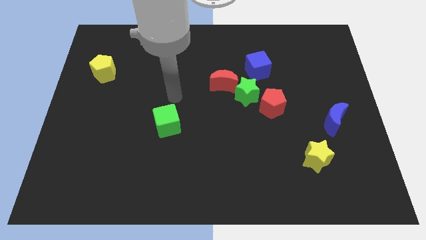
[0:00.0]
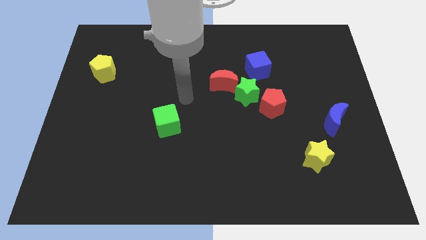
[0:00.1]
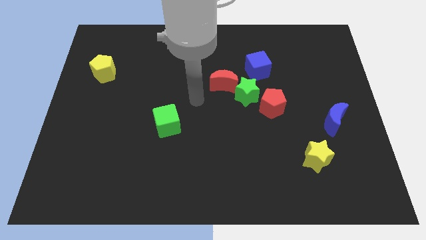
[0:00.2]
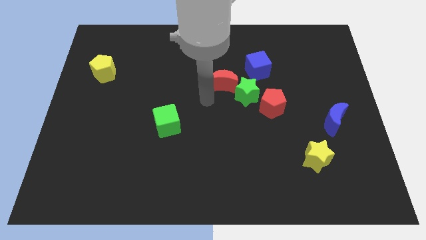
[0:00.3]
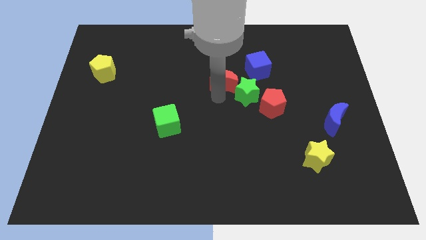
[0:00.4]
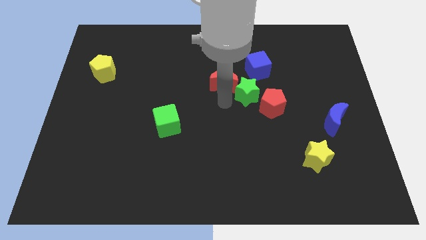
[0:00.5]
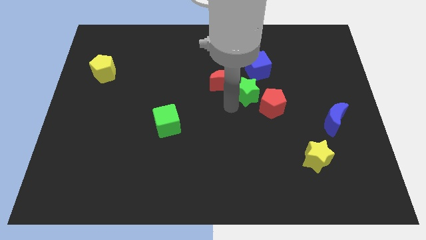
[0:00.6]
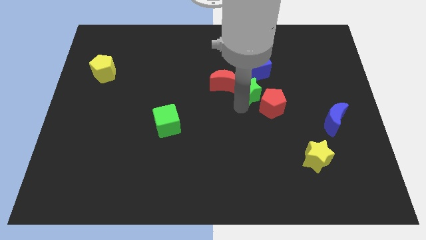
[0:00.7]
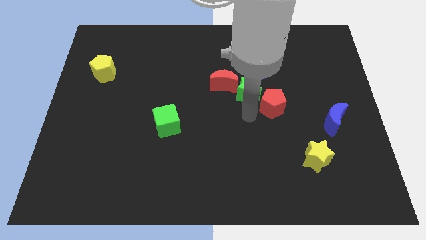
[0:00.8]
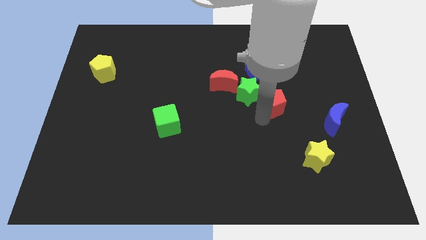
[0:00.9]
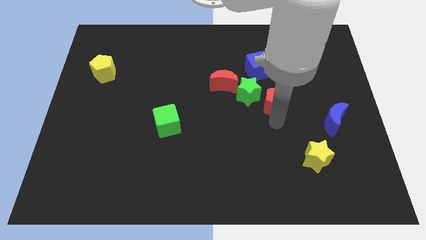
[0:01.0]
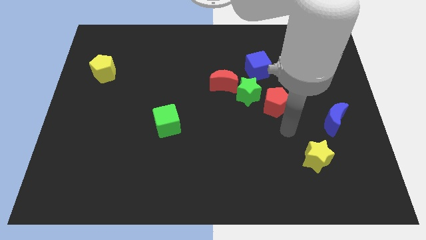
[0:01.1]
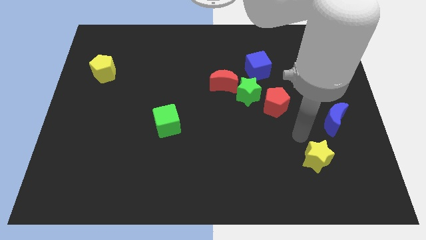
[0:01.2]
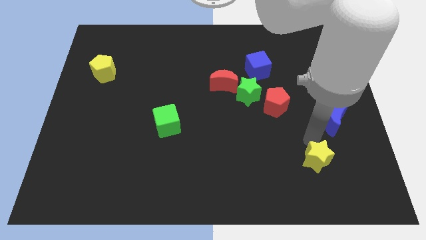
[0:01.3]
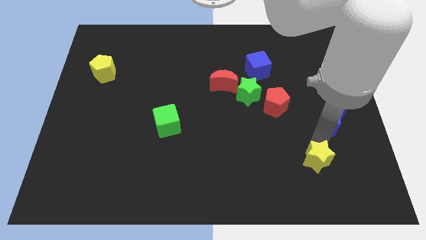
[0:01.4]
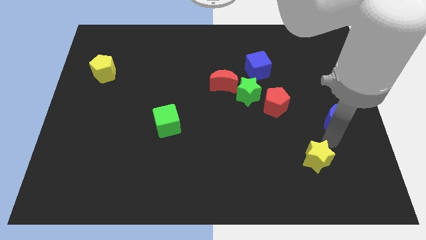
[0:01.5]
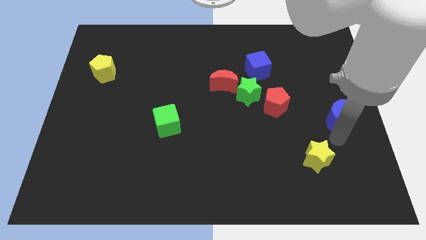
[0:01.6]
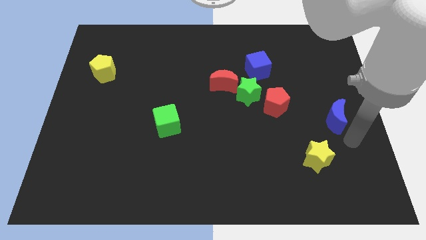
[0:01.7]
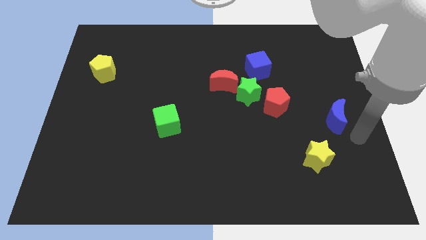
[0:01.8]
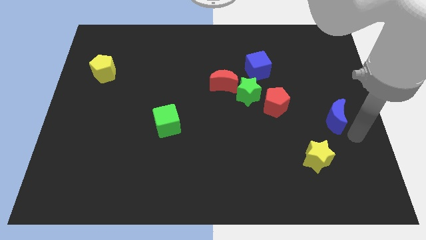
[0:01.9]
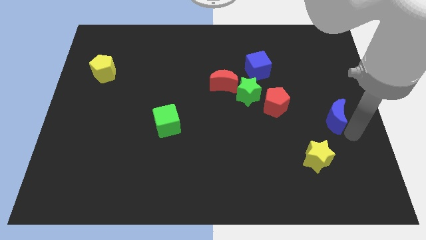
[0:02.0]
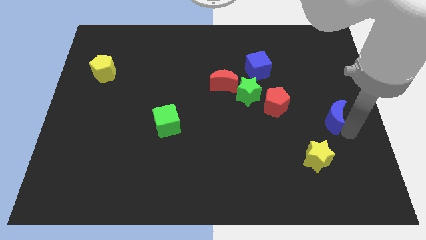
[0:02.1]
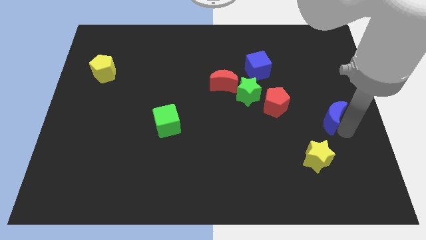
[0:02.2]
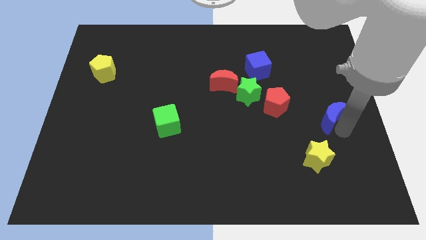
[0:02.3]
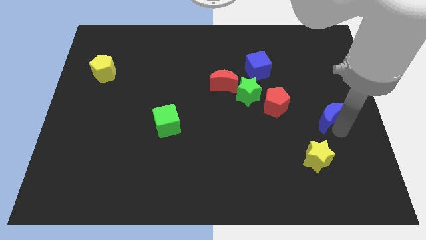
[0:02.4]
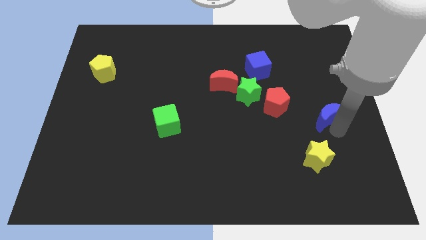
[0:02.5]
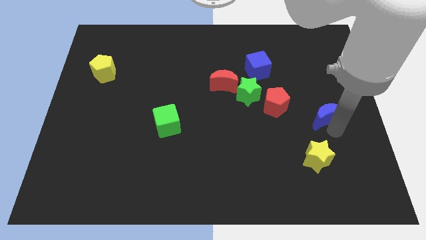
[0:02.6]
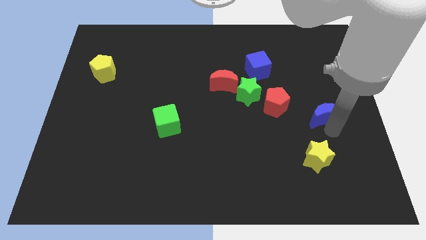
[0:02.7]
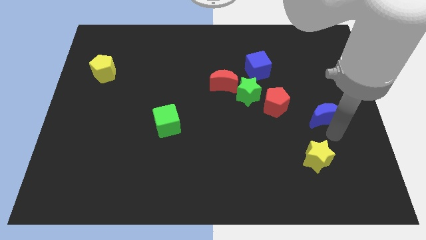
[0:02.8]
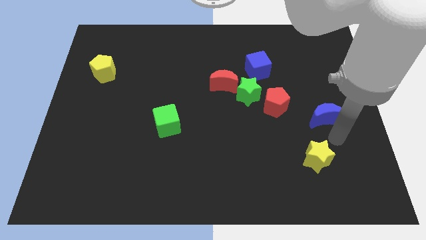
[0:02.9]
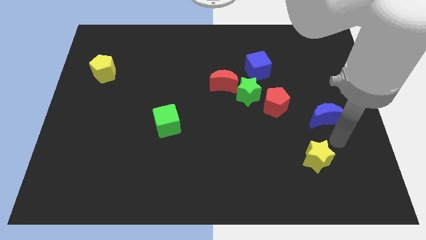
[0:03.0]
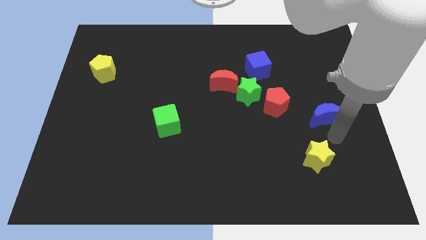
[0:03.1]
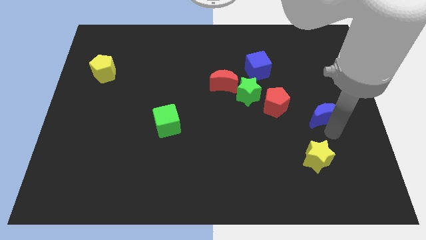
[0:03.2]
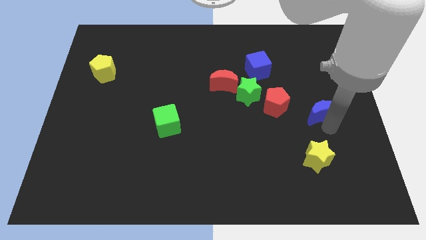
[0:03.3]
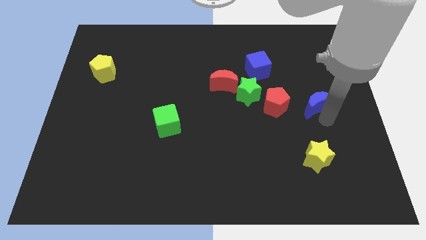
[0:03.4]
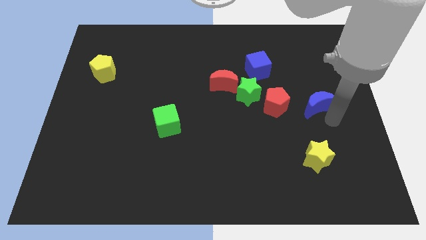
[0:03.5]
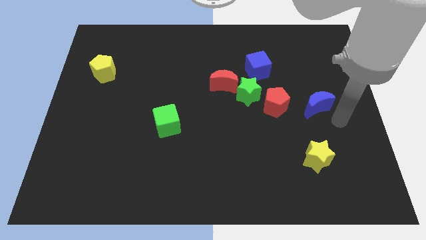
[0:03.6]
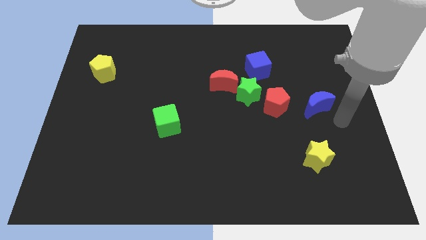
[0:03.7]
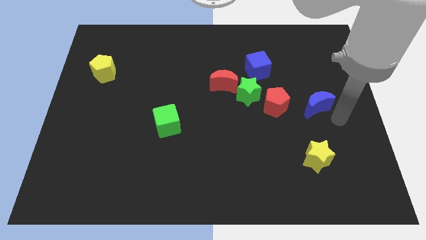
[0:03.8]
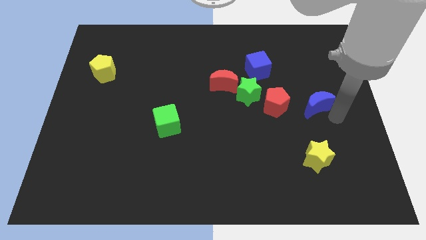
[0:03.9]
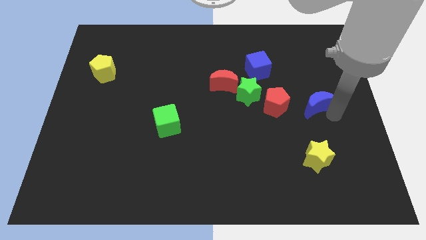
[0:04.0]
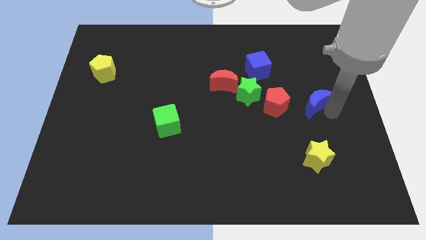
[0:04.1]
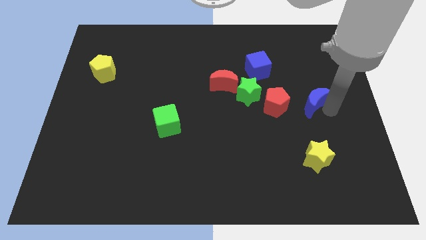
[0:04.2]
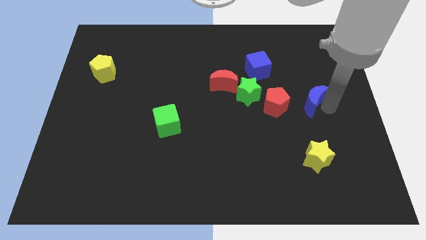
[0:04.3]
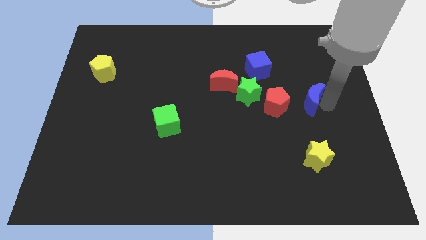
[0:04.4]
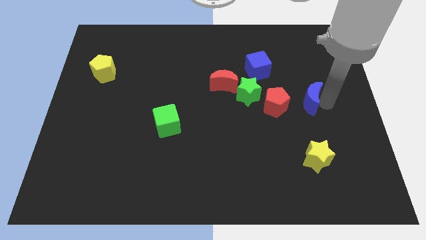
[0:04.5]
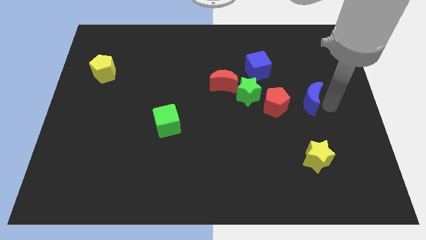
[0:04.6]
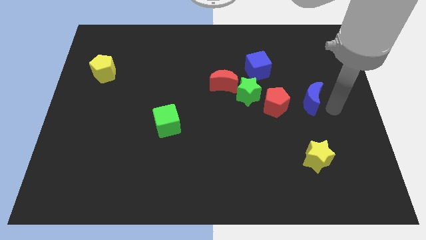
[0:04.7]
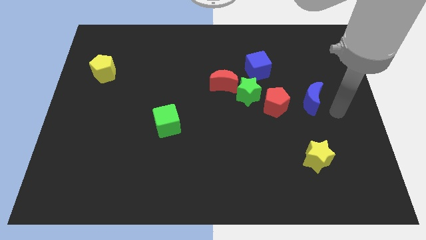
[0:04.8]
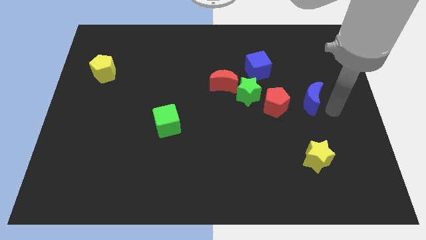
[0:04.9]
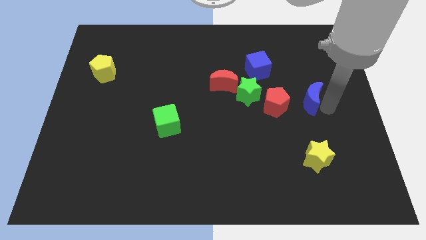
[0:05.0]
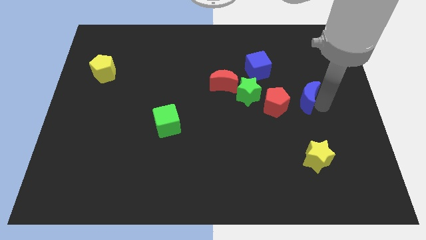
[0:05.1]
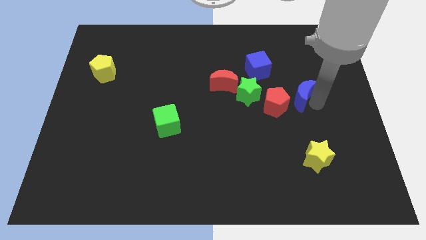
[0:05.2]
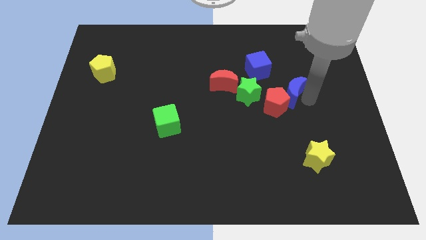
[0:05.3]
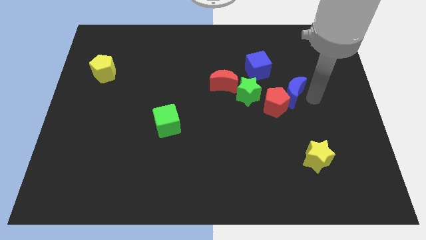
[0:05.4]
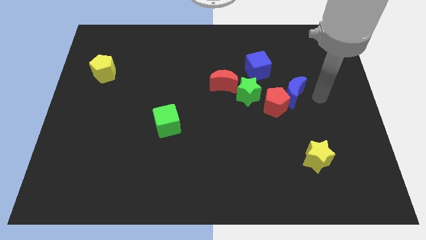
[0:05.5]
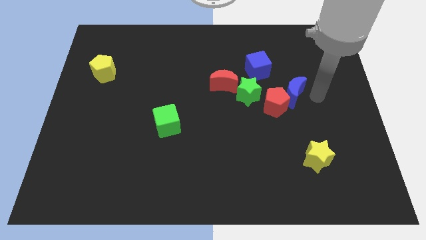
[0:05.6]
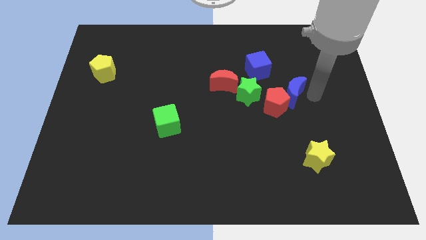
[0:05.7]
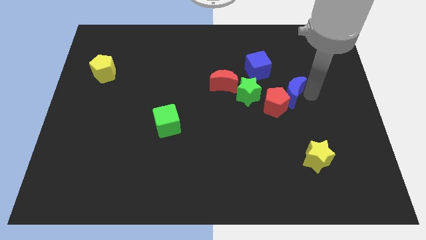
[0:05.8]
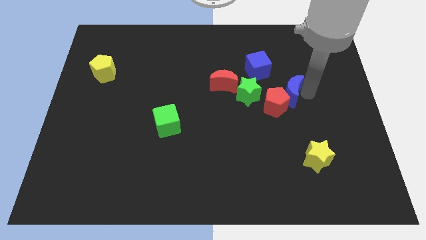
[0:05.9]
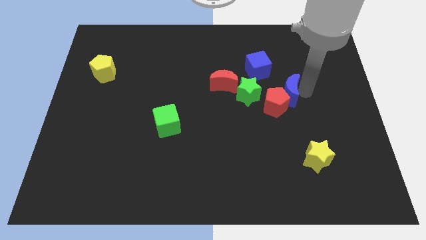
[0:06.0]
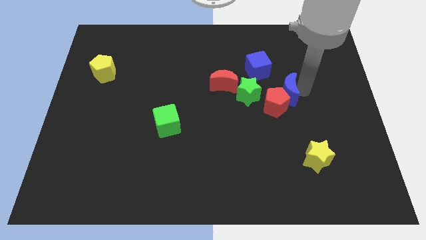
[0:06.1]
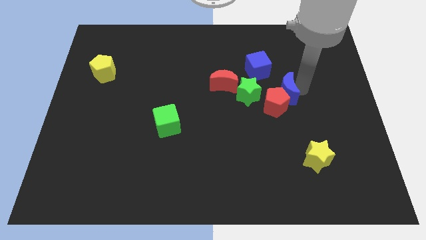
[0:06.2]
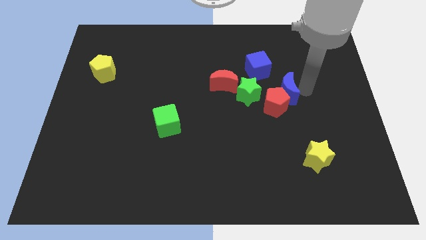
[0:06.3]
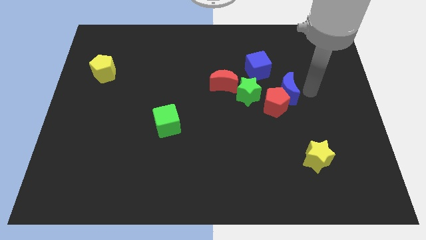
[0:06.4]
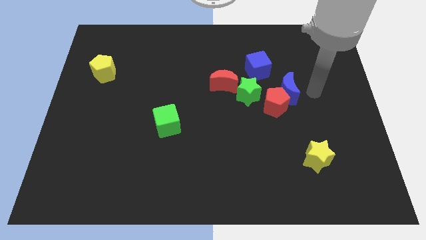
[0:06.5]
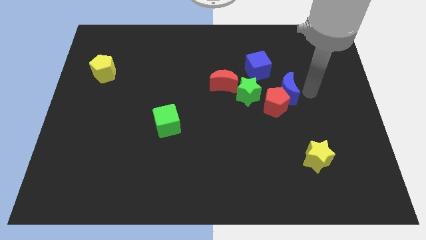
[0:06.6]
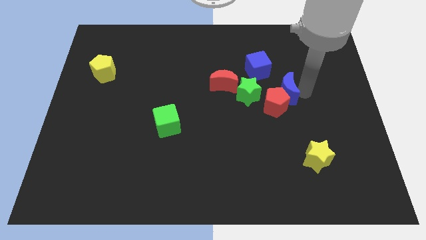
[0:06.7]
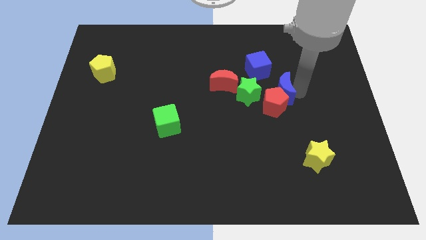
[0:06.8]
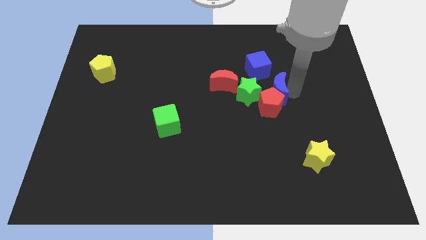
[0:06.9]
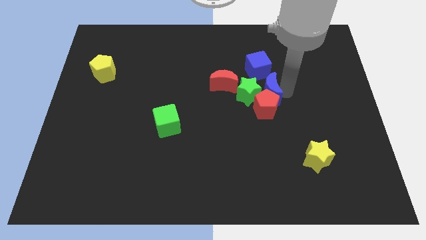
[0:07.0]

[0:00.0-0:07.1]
move the blue moon towards the green star

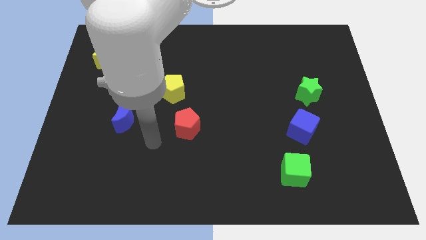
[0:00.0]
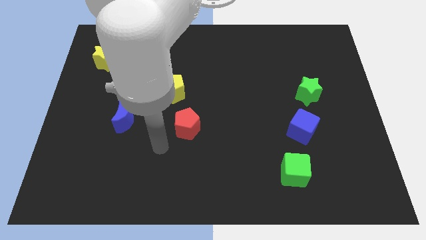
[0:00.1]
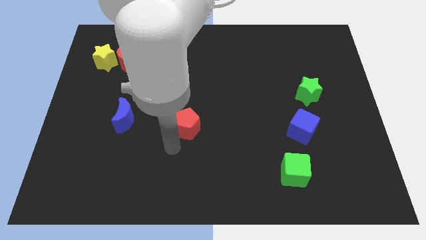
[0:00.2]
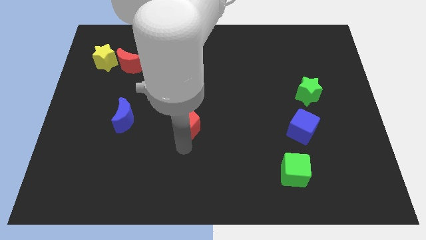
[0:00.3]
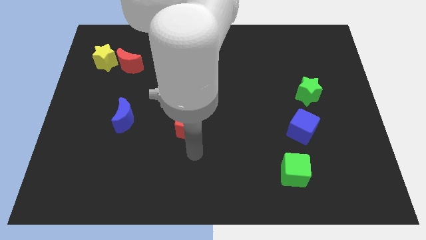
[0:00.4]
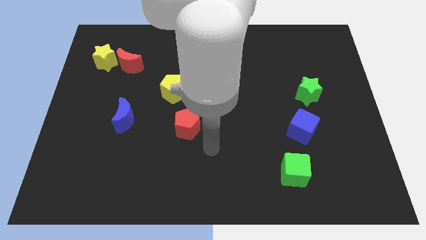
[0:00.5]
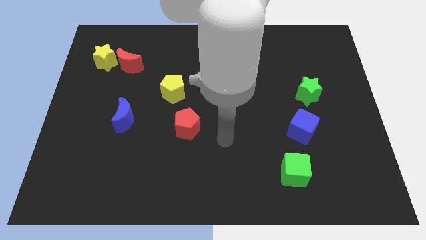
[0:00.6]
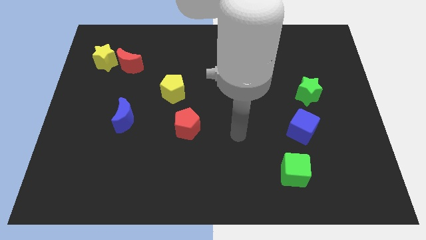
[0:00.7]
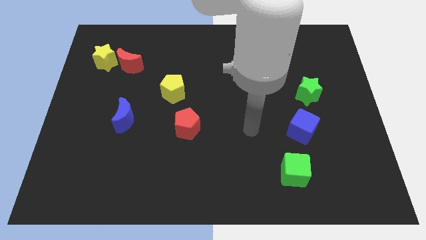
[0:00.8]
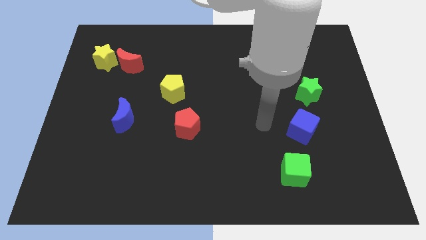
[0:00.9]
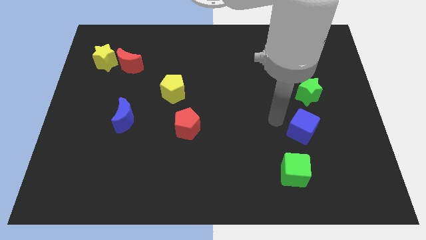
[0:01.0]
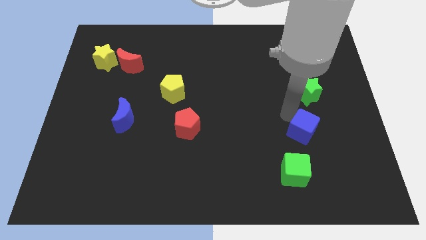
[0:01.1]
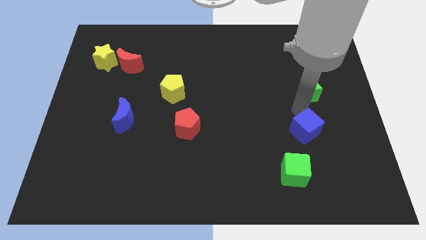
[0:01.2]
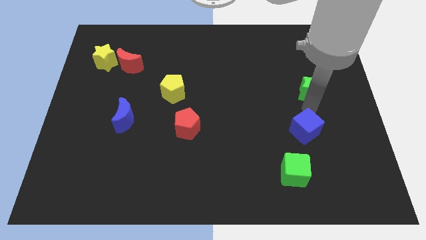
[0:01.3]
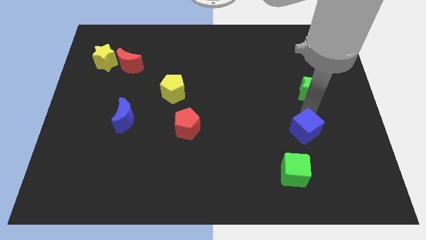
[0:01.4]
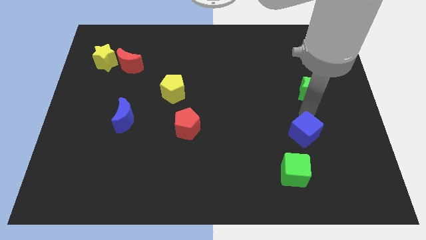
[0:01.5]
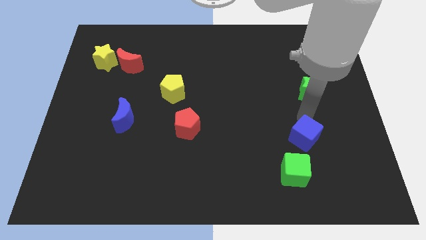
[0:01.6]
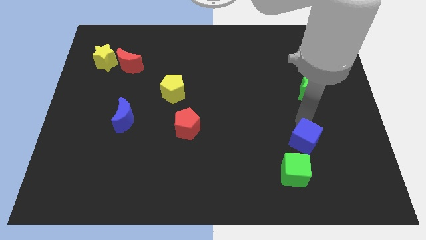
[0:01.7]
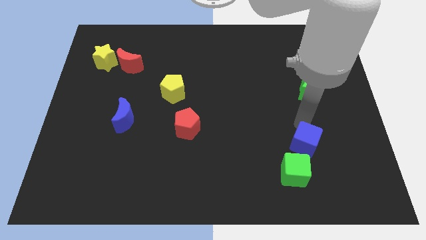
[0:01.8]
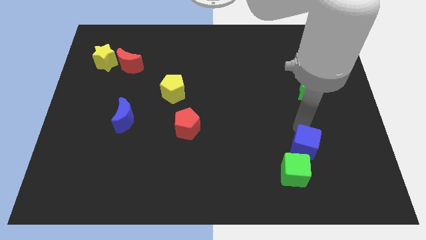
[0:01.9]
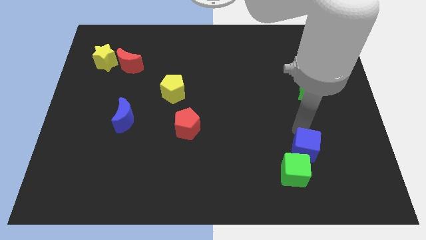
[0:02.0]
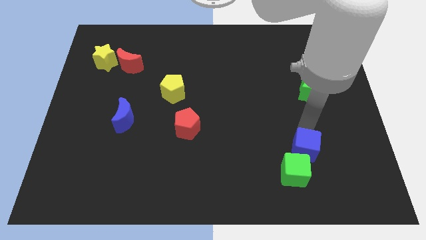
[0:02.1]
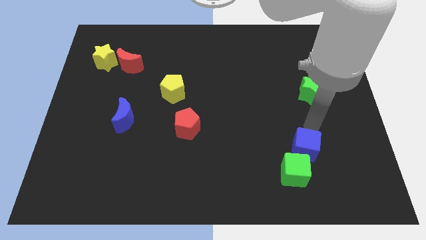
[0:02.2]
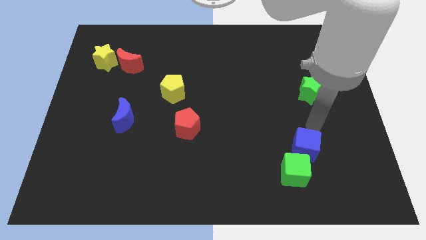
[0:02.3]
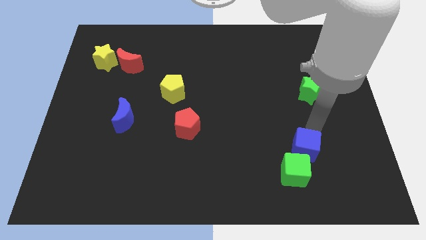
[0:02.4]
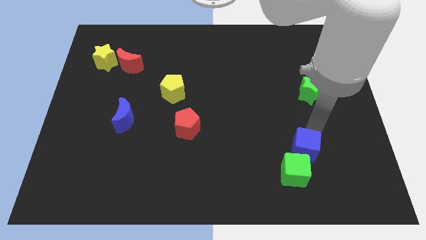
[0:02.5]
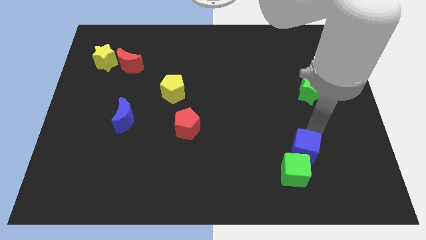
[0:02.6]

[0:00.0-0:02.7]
push the blue cube towards the green cube
